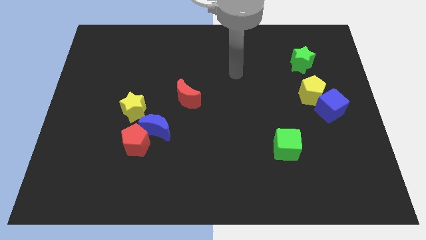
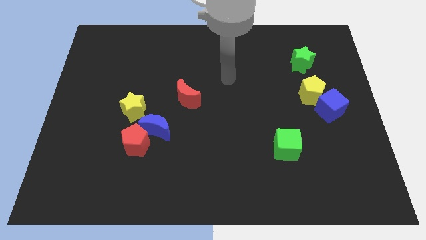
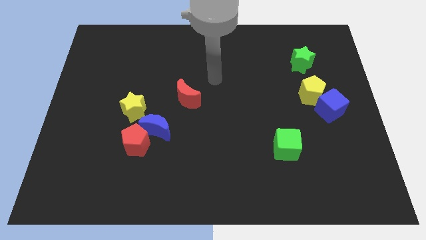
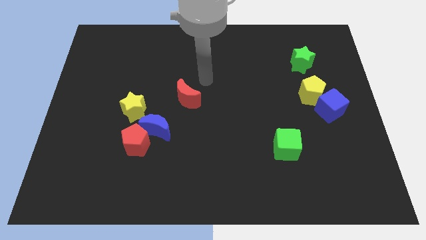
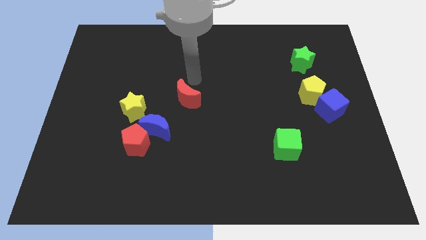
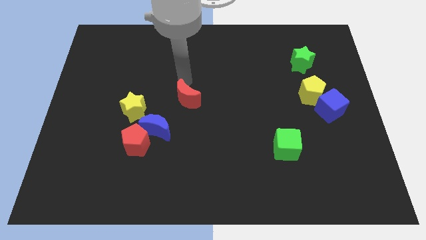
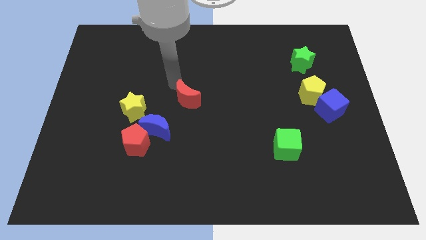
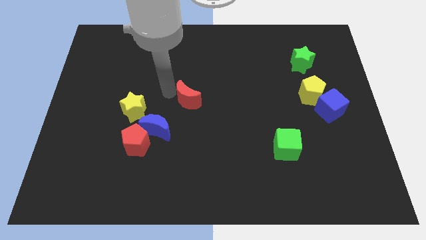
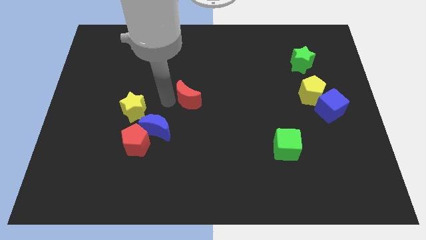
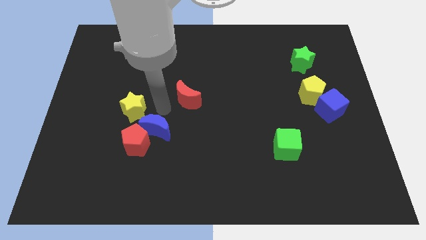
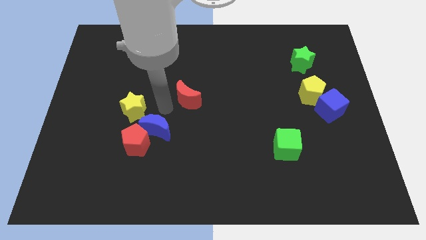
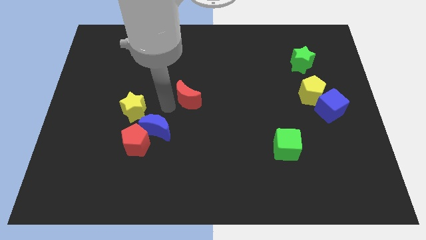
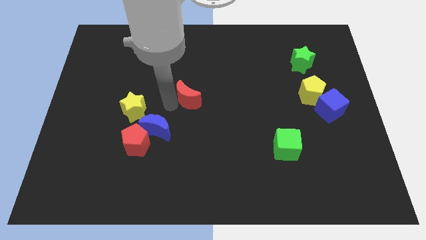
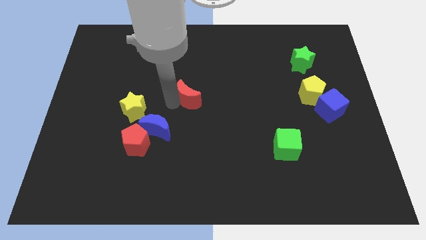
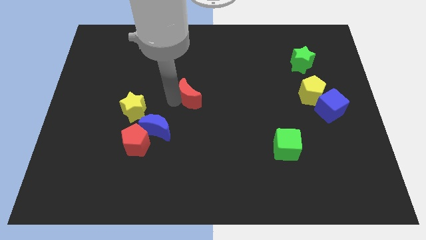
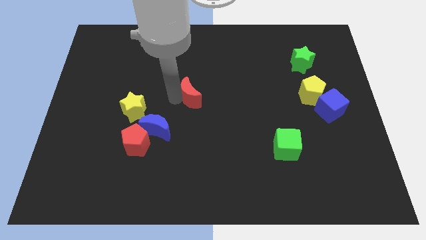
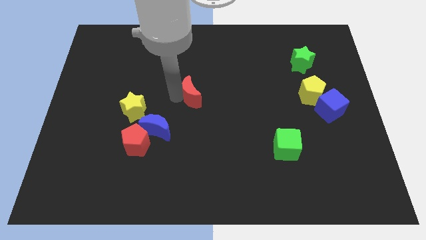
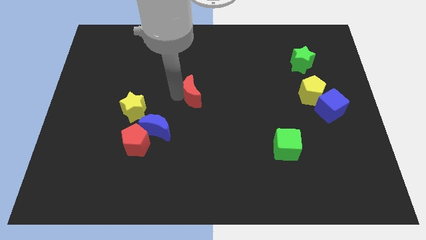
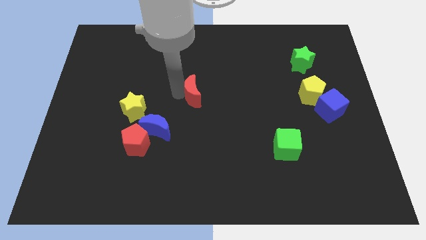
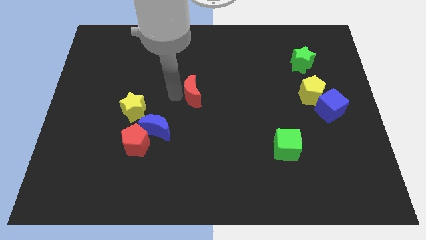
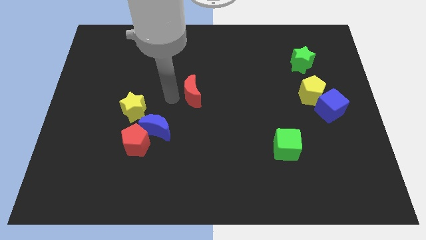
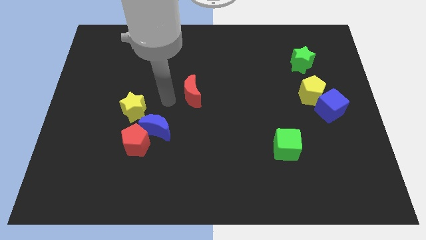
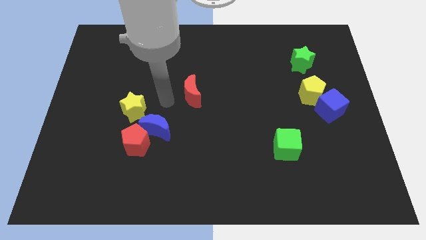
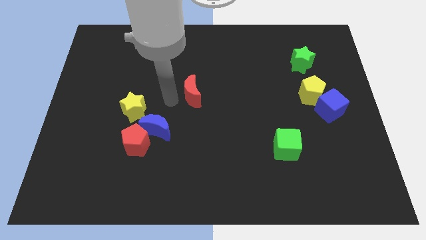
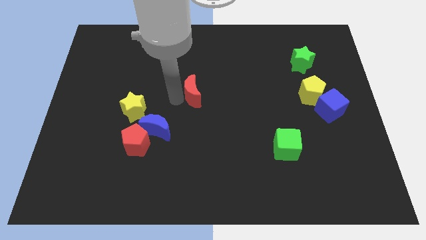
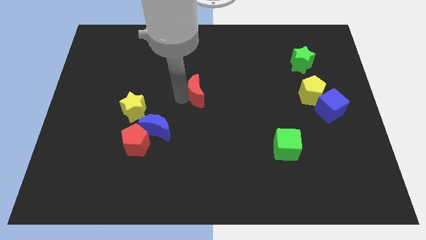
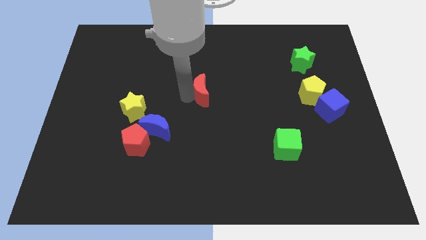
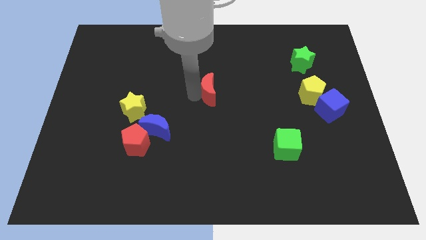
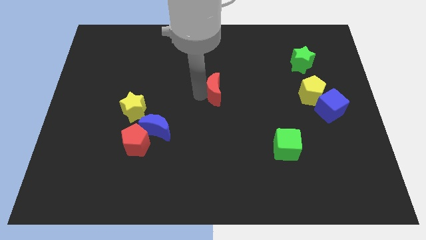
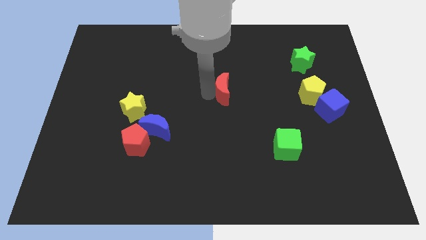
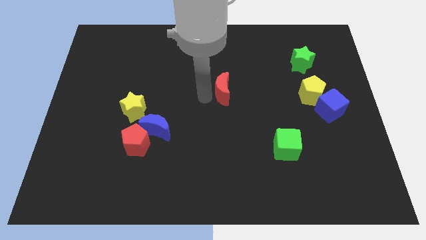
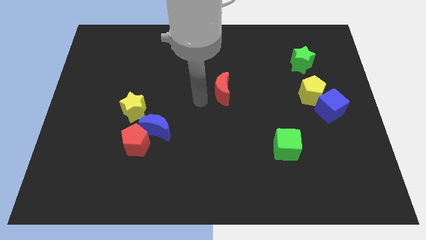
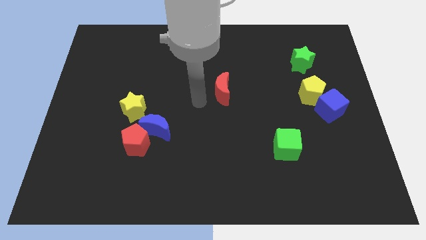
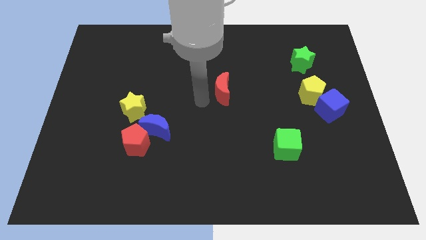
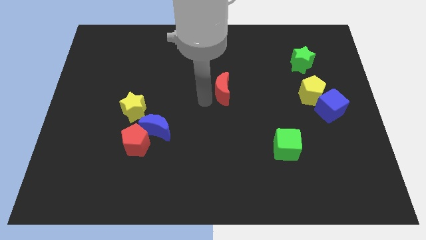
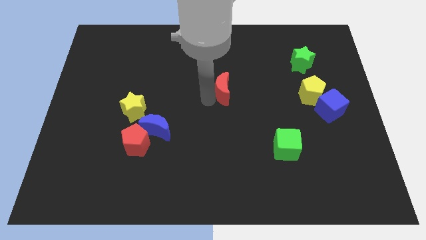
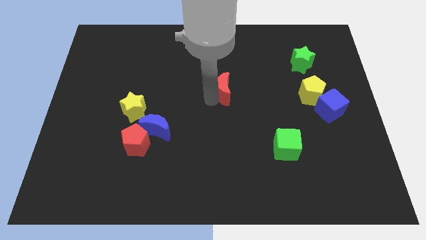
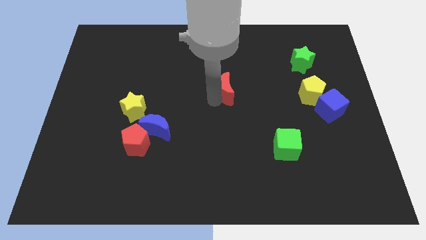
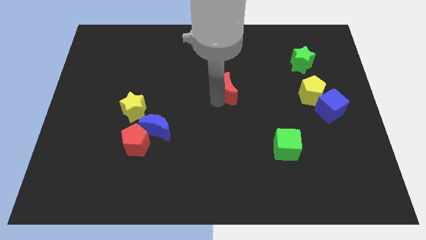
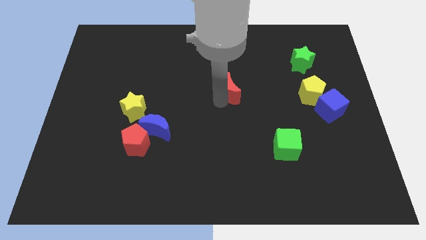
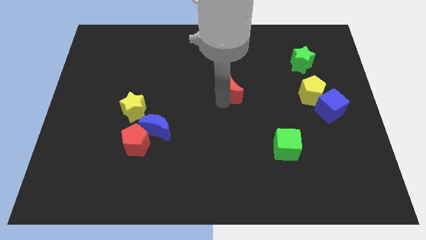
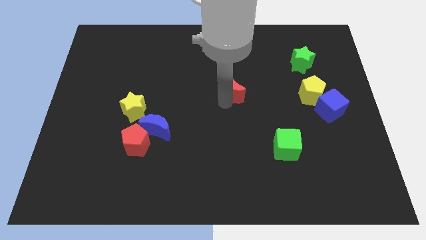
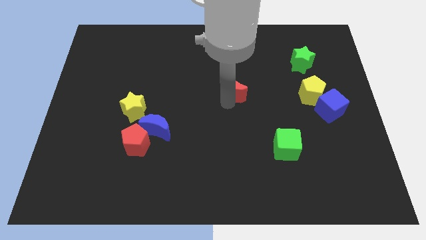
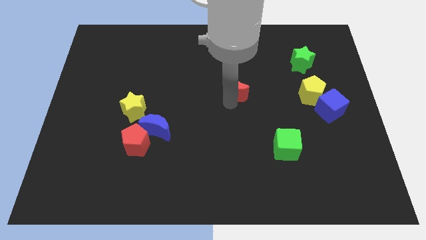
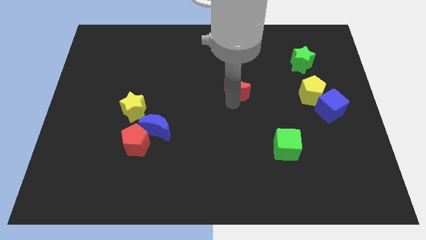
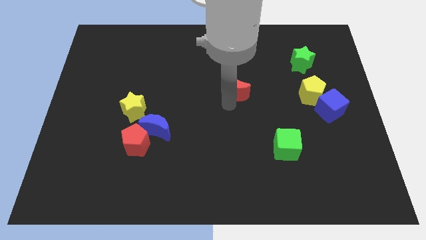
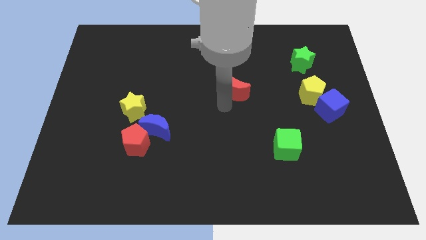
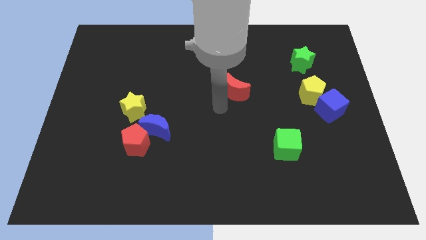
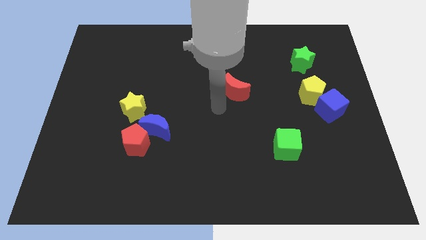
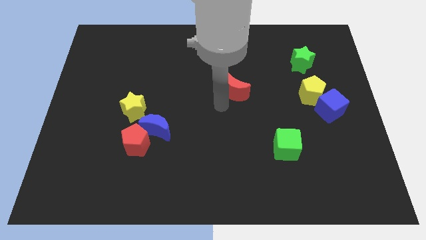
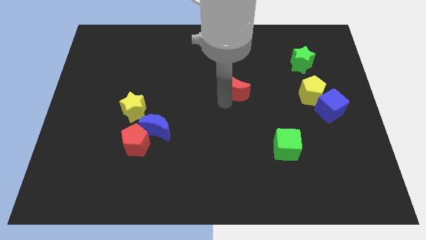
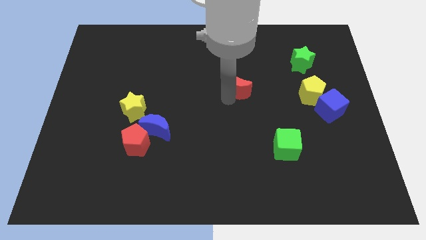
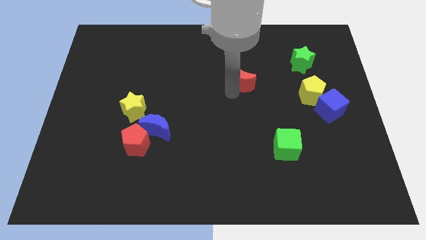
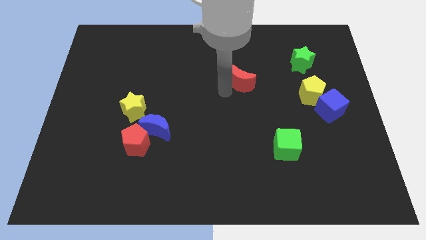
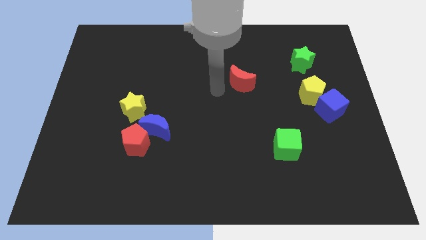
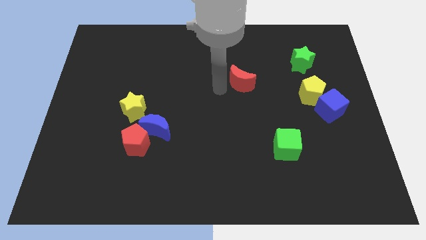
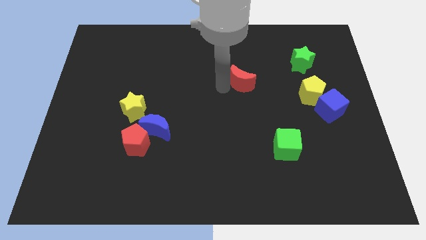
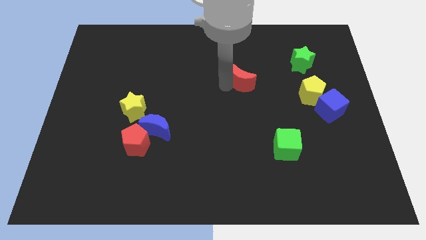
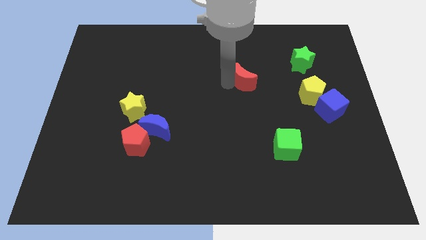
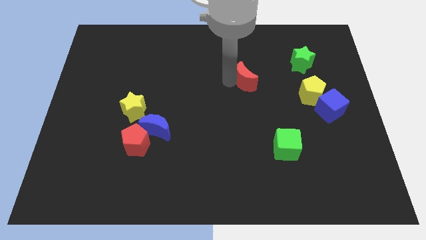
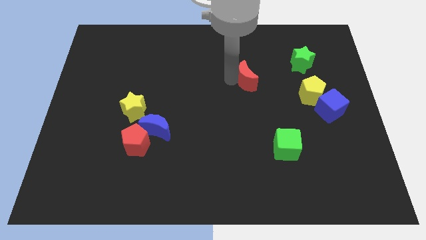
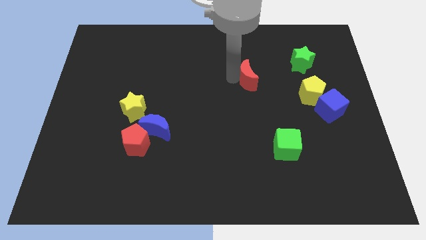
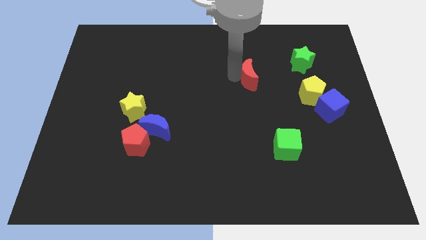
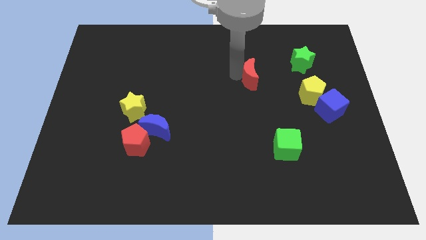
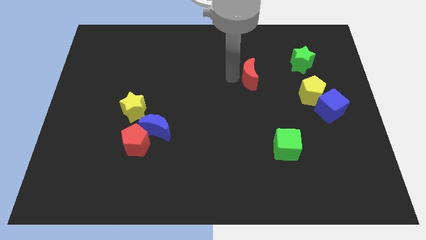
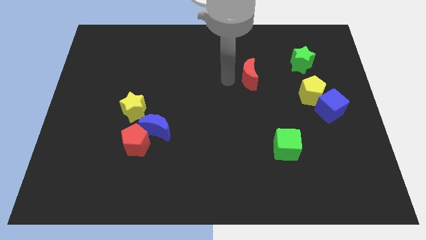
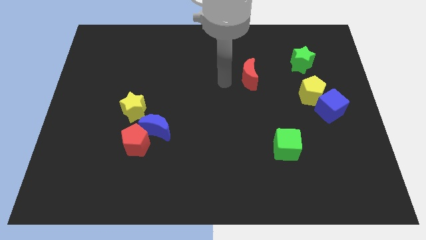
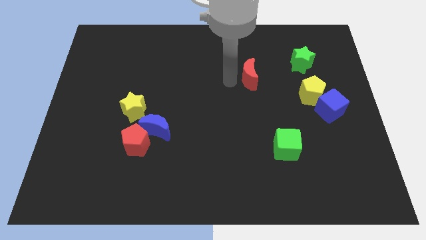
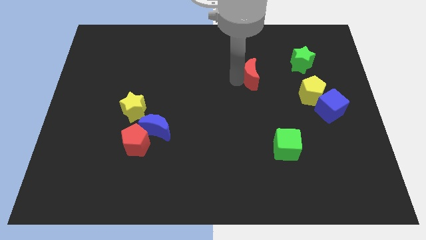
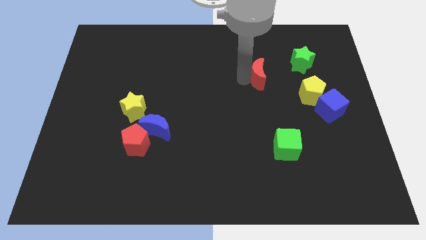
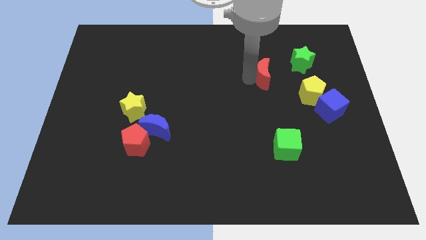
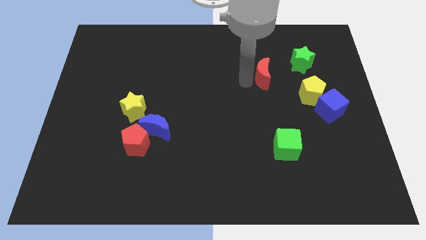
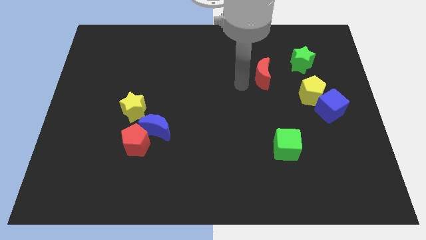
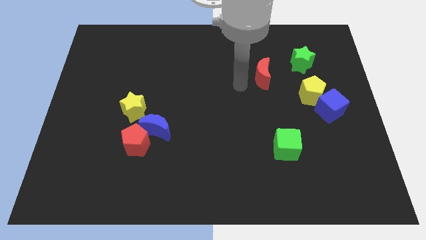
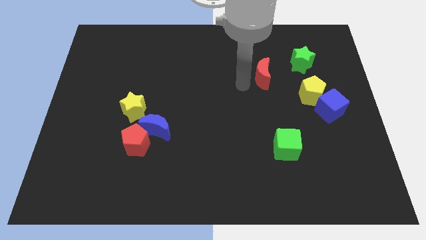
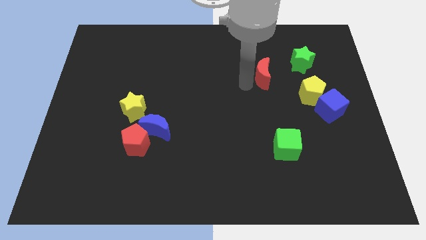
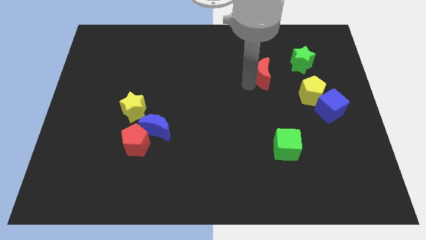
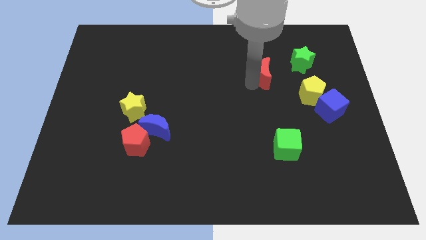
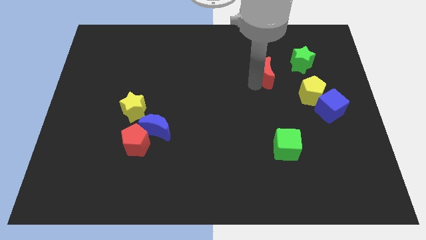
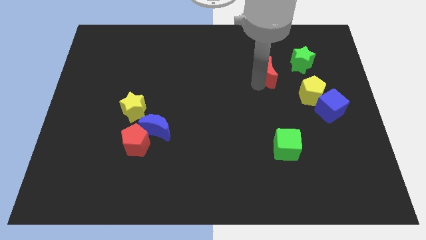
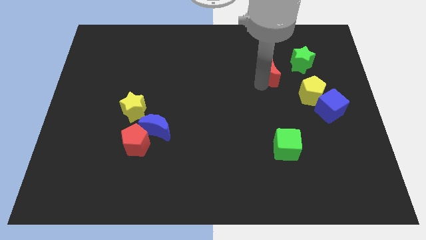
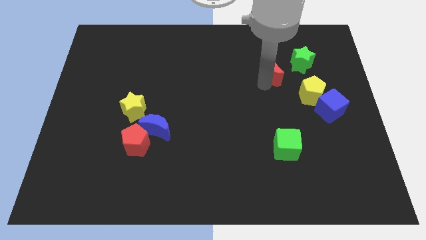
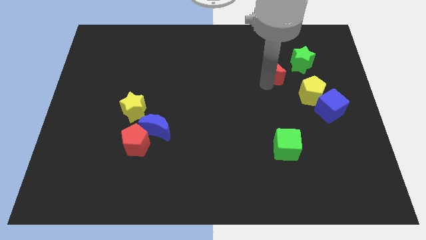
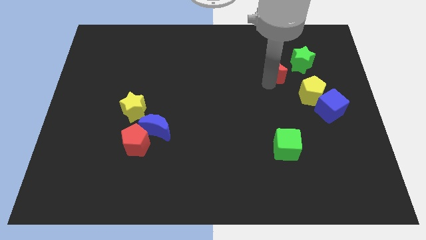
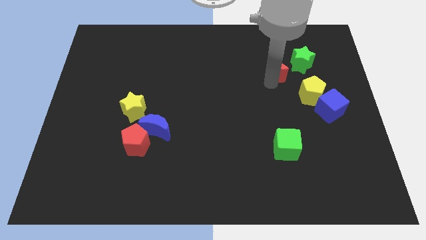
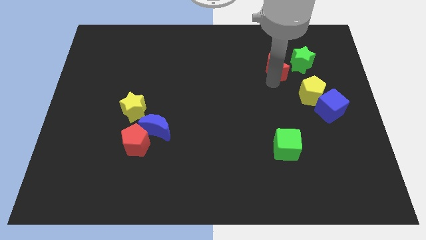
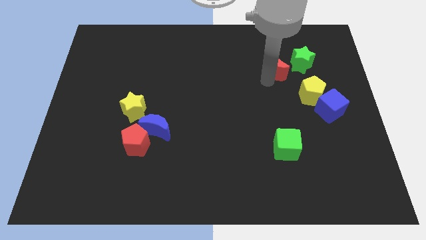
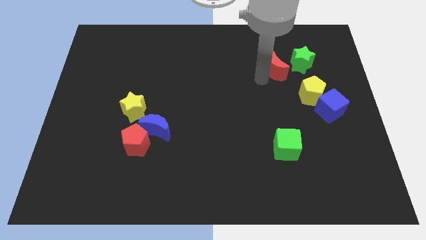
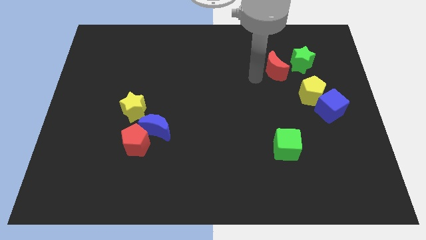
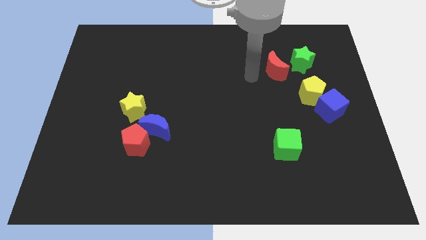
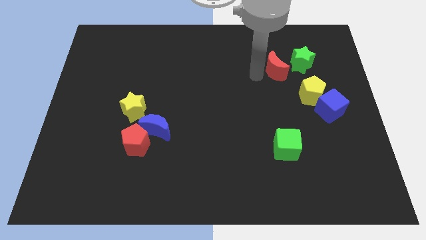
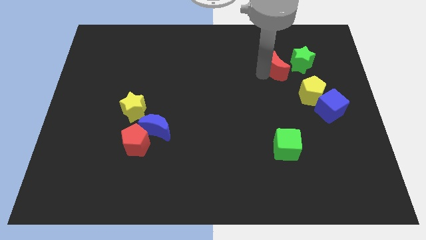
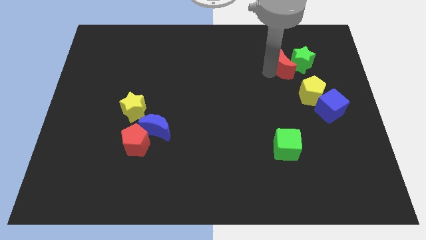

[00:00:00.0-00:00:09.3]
slide the red moon towards the green star
